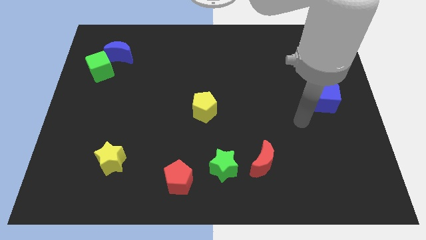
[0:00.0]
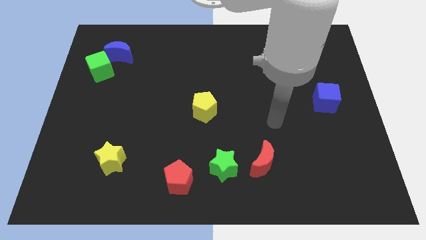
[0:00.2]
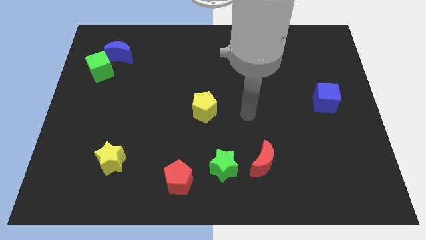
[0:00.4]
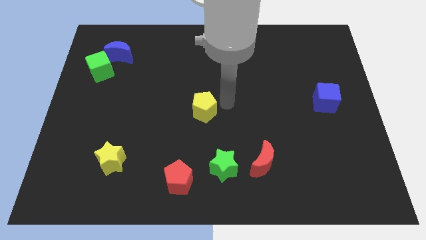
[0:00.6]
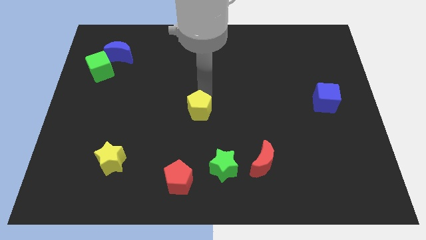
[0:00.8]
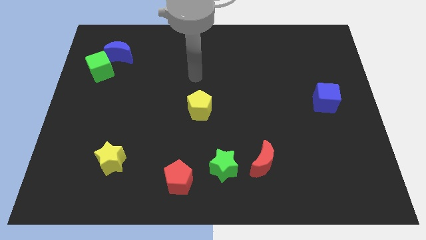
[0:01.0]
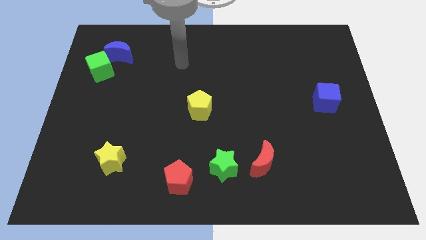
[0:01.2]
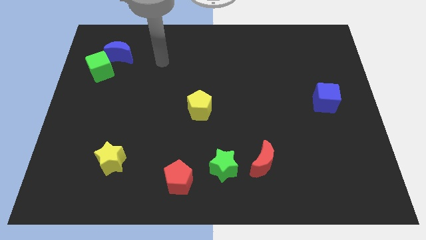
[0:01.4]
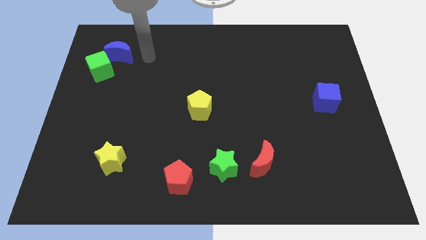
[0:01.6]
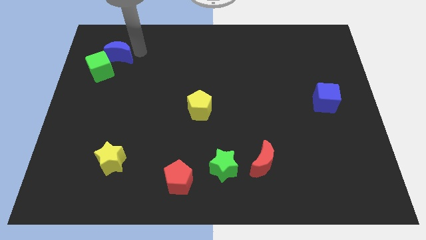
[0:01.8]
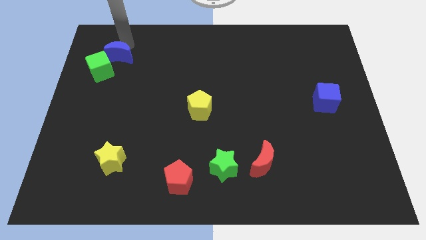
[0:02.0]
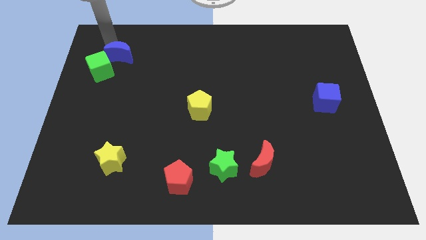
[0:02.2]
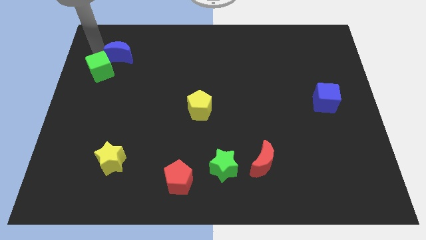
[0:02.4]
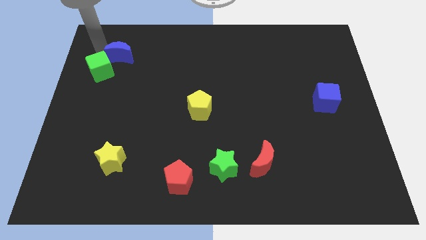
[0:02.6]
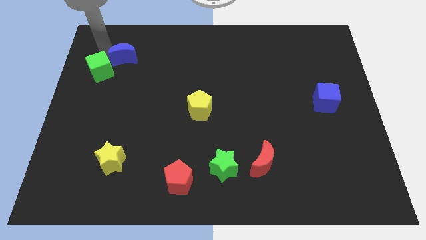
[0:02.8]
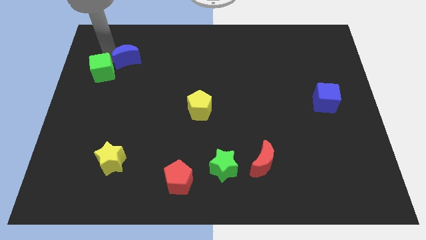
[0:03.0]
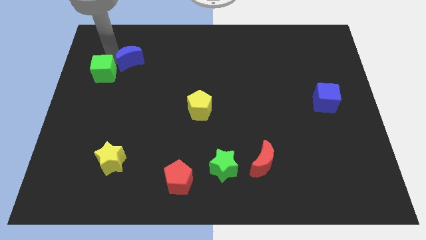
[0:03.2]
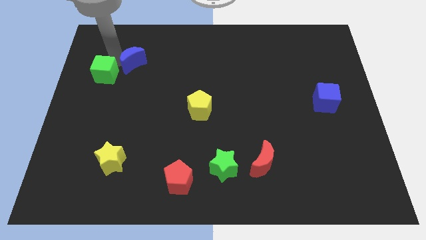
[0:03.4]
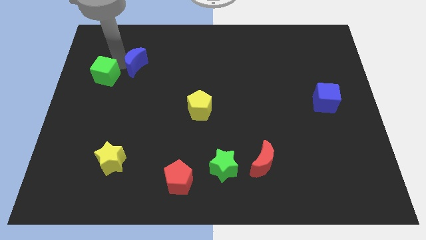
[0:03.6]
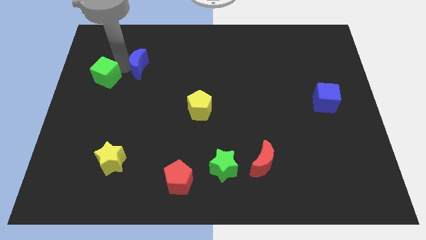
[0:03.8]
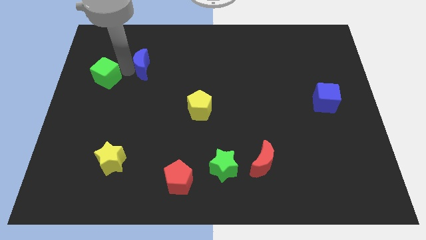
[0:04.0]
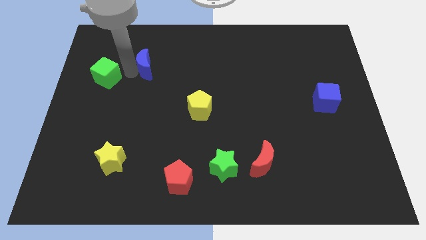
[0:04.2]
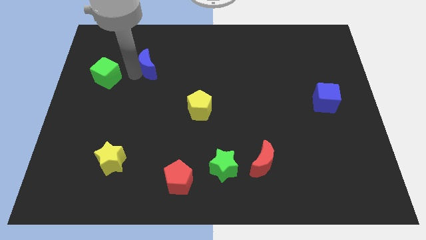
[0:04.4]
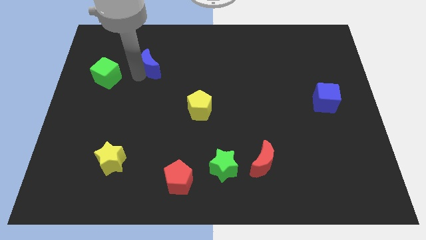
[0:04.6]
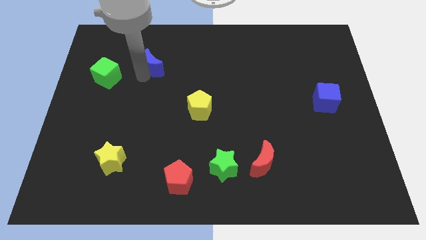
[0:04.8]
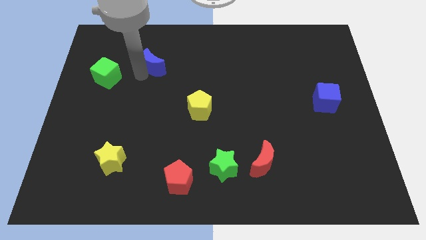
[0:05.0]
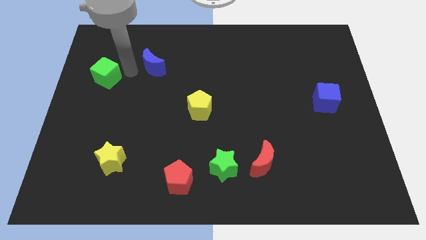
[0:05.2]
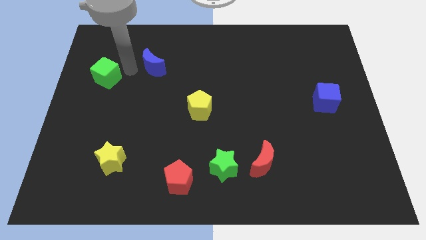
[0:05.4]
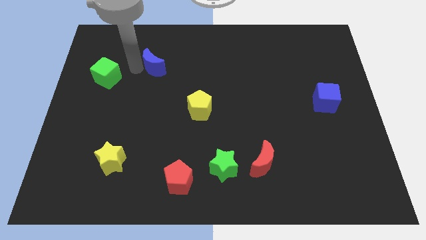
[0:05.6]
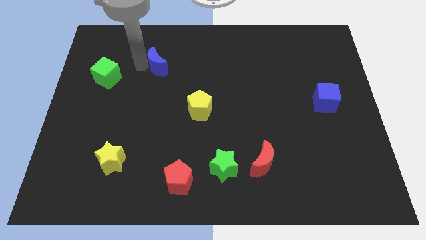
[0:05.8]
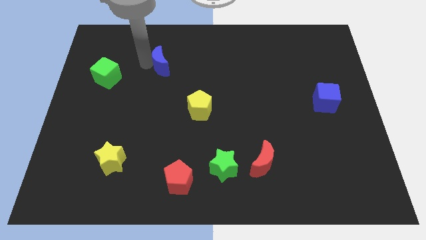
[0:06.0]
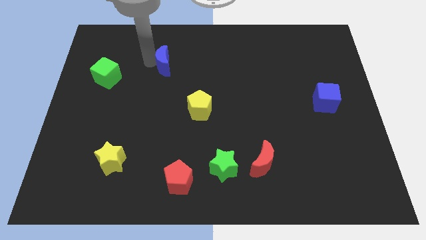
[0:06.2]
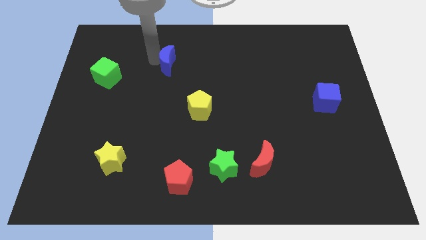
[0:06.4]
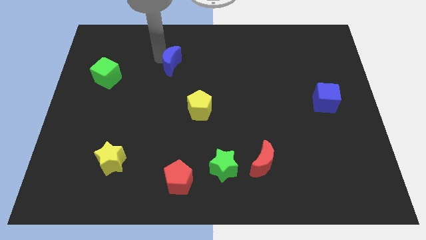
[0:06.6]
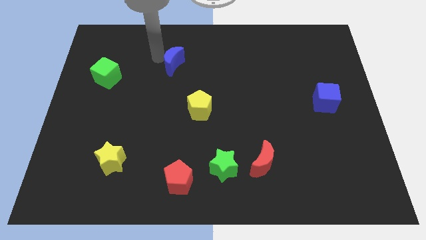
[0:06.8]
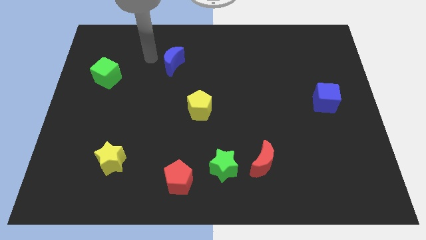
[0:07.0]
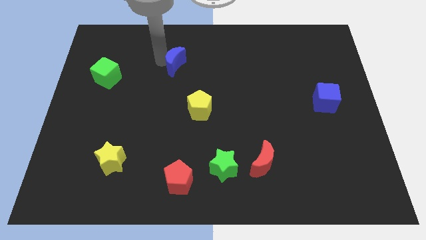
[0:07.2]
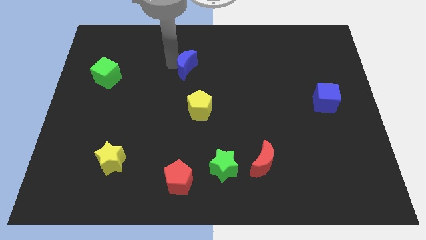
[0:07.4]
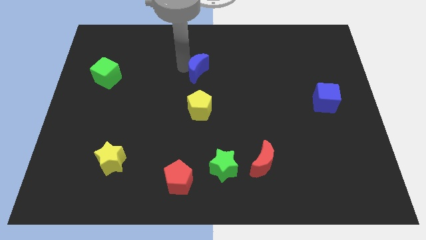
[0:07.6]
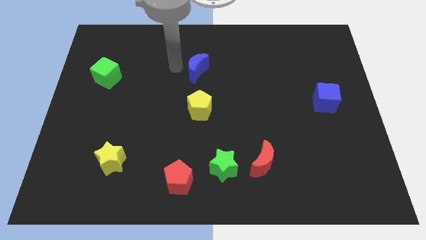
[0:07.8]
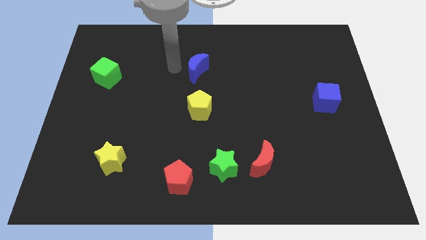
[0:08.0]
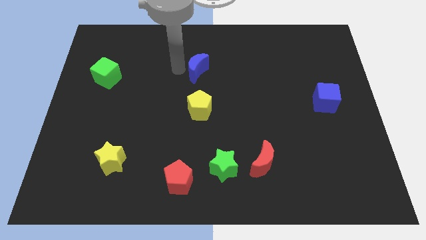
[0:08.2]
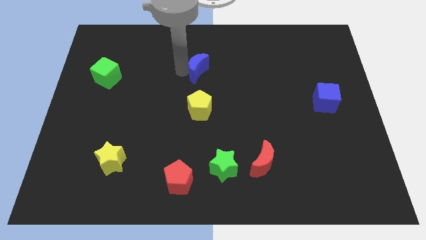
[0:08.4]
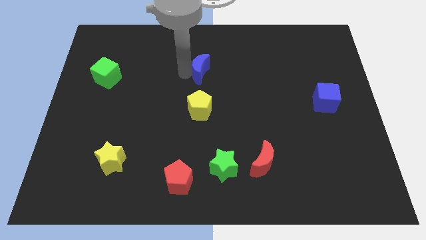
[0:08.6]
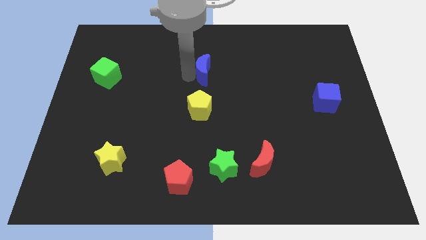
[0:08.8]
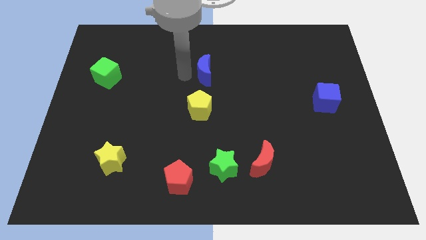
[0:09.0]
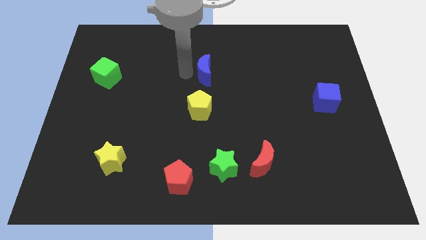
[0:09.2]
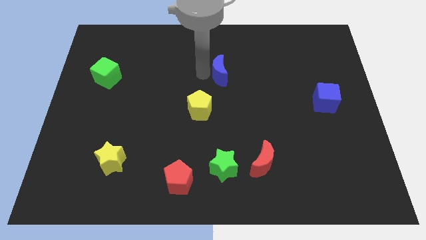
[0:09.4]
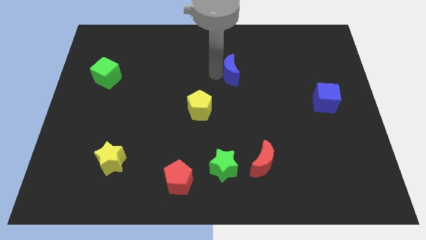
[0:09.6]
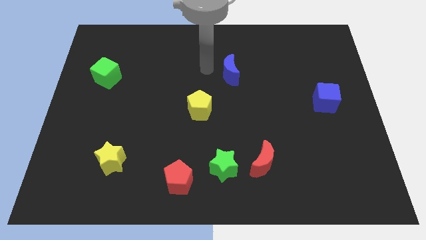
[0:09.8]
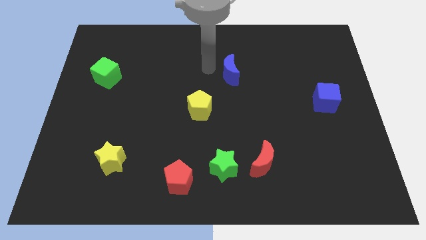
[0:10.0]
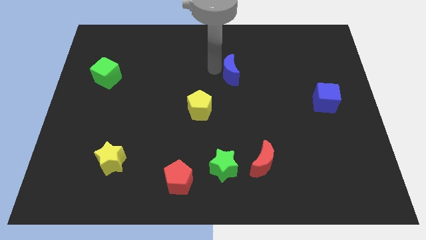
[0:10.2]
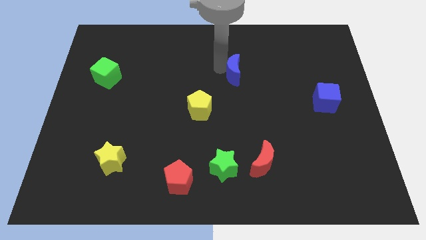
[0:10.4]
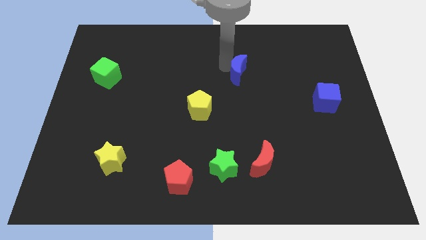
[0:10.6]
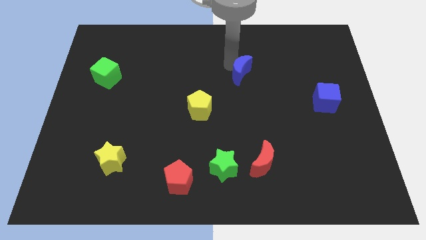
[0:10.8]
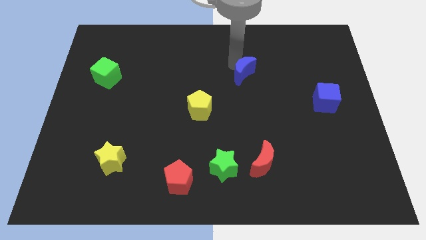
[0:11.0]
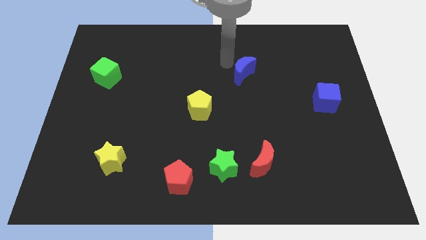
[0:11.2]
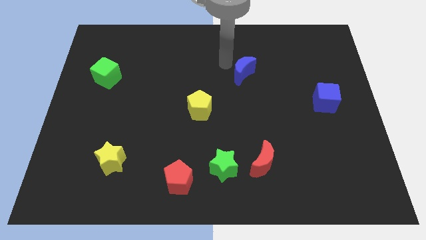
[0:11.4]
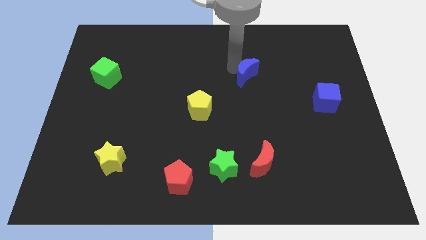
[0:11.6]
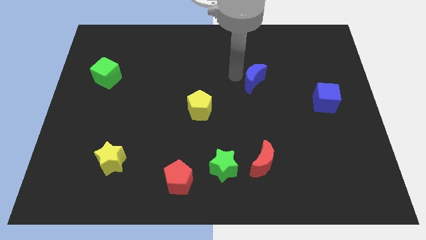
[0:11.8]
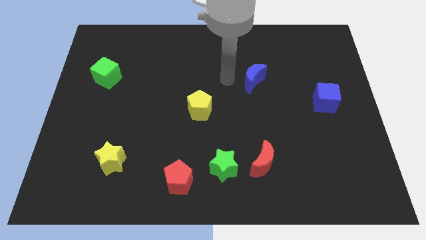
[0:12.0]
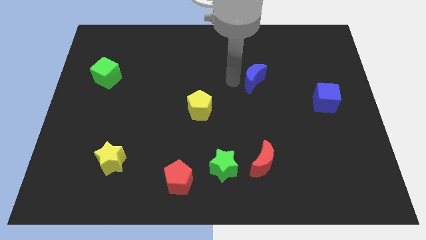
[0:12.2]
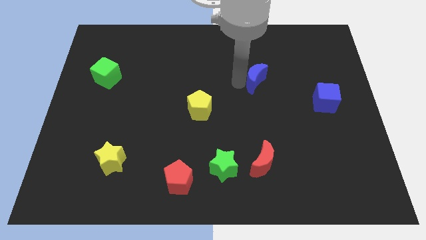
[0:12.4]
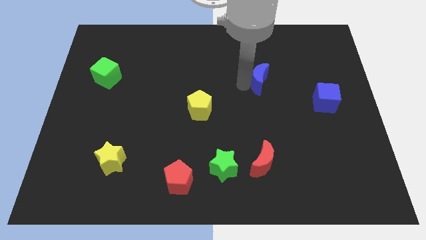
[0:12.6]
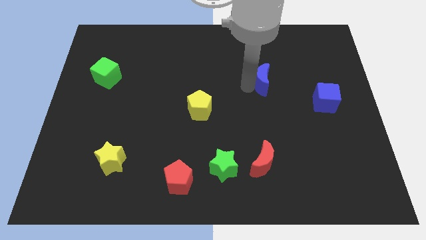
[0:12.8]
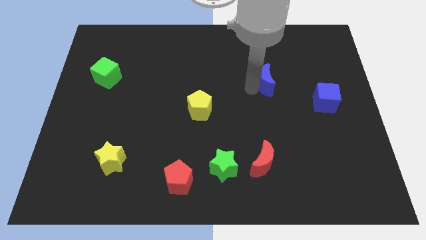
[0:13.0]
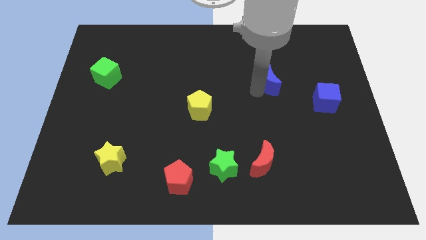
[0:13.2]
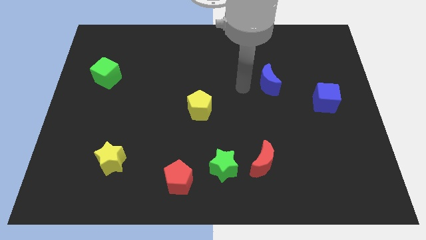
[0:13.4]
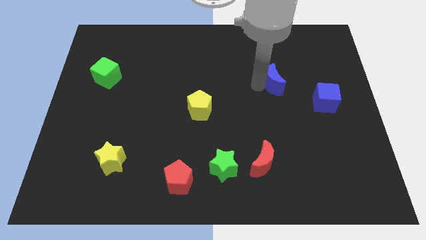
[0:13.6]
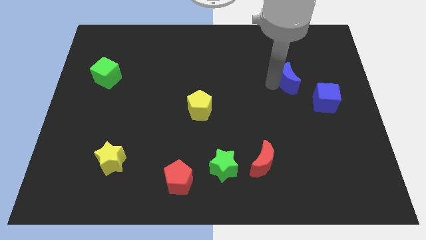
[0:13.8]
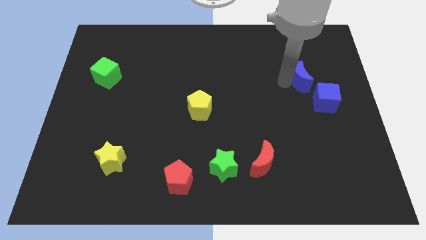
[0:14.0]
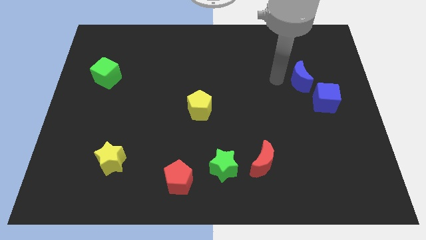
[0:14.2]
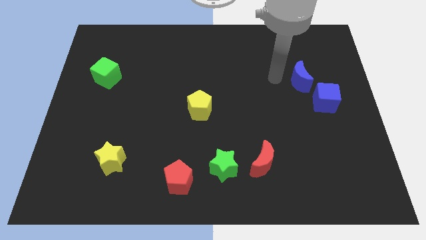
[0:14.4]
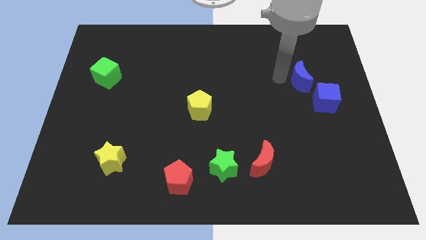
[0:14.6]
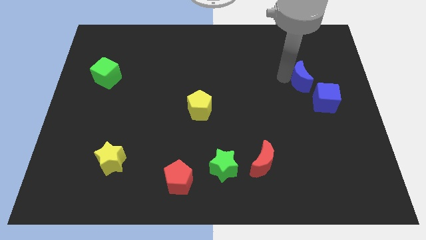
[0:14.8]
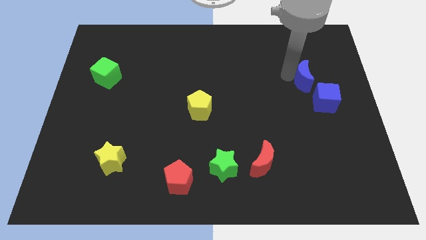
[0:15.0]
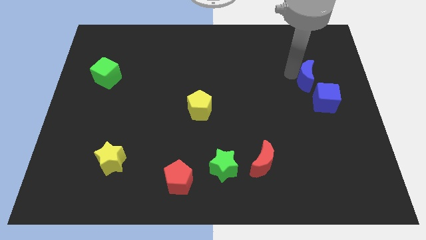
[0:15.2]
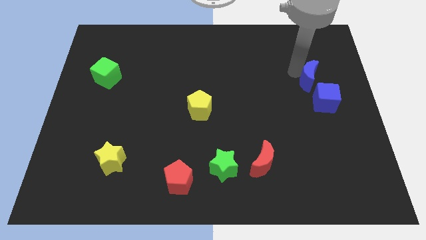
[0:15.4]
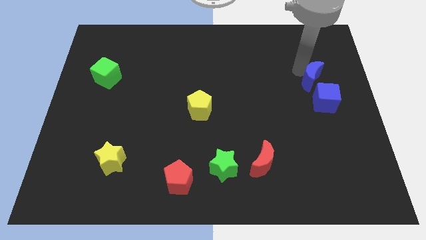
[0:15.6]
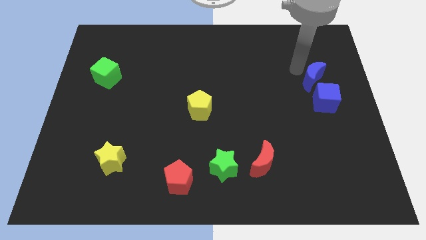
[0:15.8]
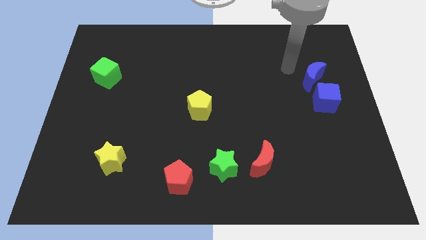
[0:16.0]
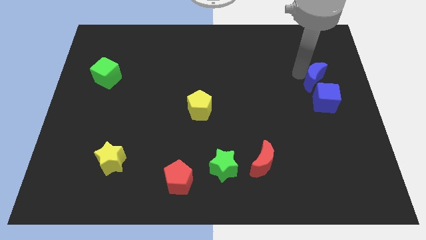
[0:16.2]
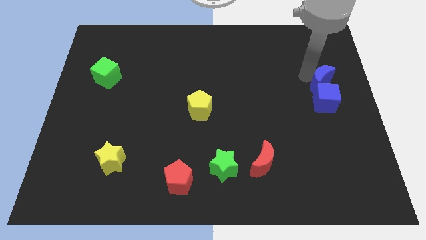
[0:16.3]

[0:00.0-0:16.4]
put the blue moon to the center right
